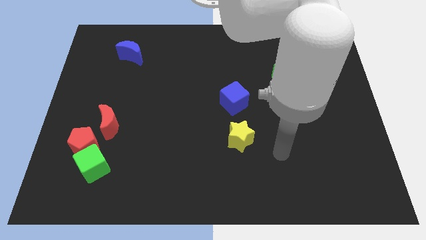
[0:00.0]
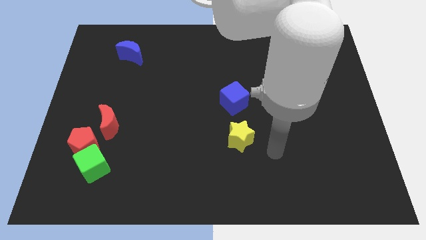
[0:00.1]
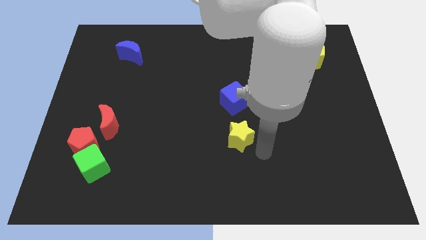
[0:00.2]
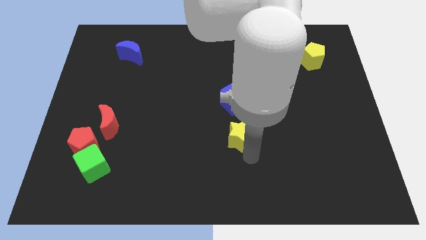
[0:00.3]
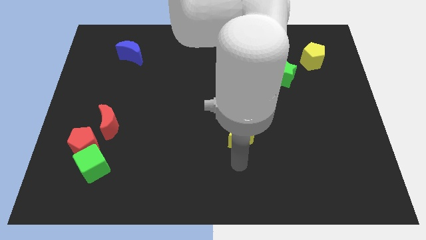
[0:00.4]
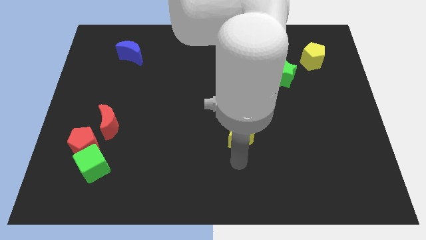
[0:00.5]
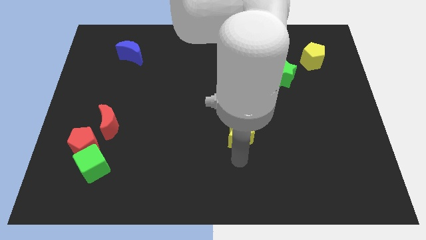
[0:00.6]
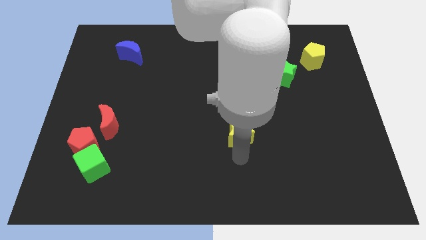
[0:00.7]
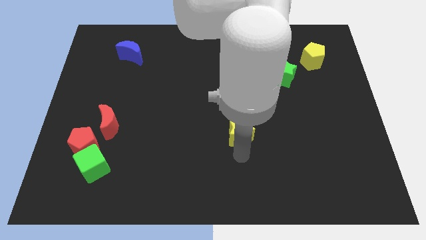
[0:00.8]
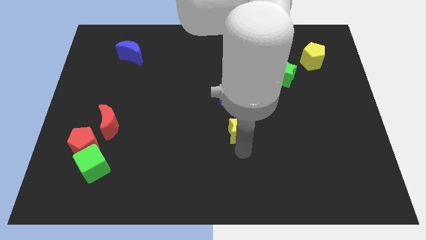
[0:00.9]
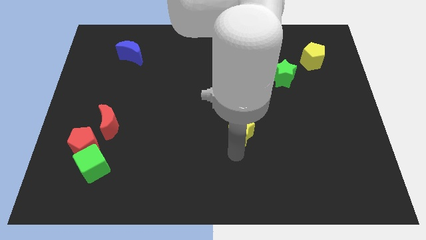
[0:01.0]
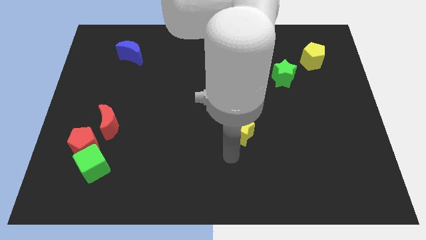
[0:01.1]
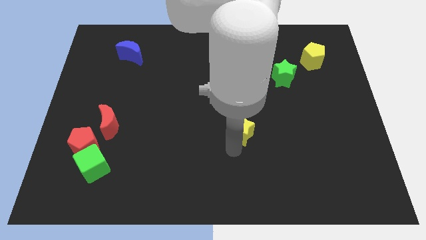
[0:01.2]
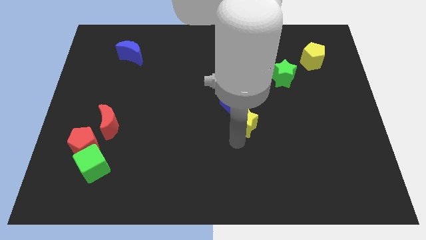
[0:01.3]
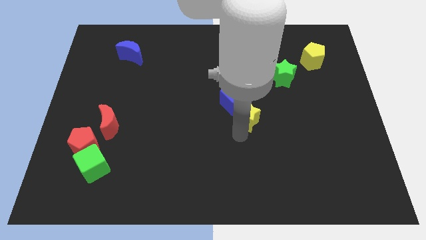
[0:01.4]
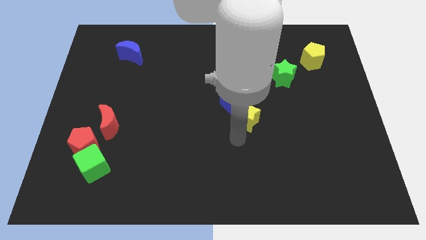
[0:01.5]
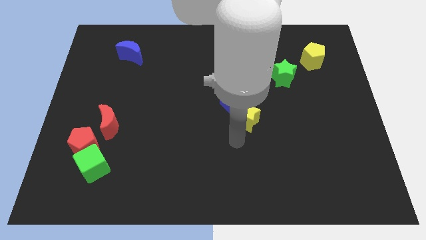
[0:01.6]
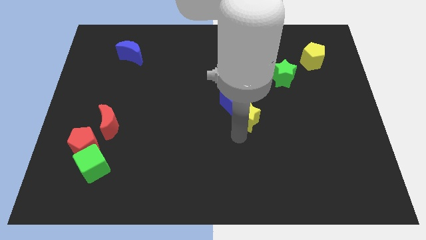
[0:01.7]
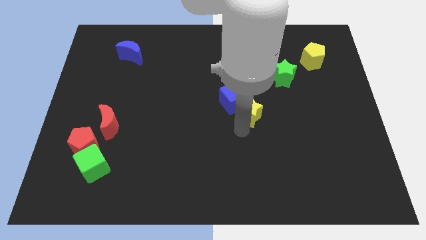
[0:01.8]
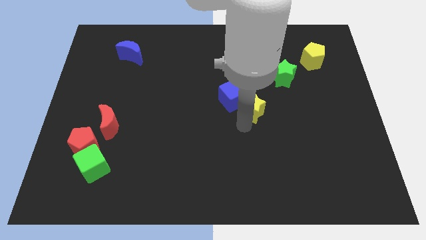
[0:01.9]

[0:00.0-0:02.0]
push the yellow star a little bit up

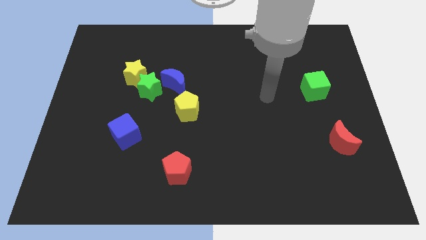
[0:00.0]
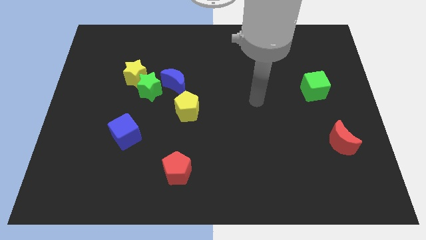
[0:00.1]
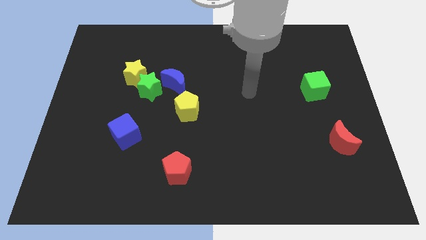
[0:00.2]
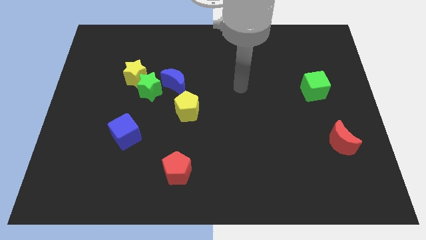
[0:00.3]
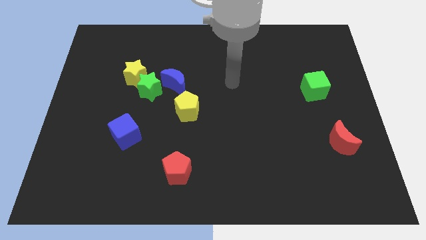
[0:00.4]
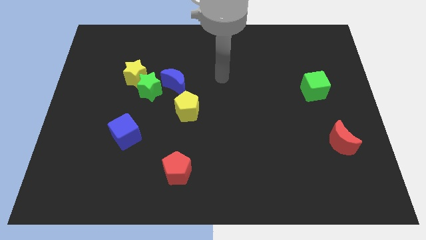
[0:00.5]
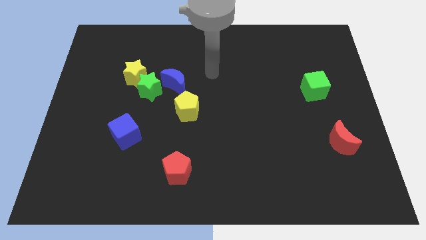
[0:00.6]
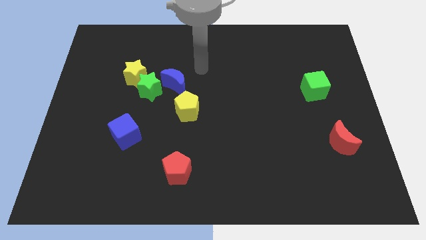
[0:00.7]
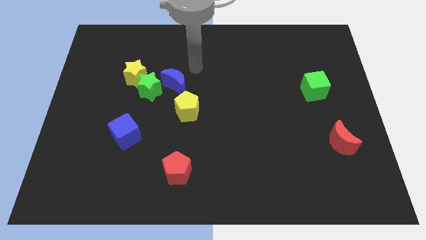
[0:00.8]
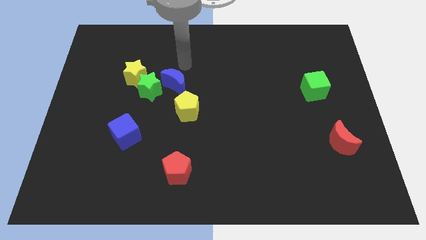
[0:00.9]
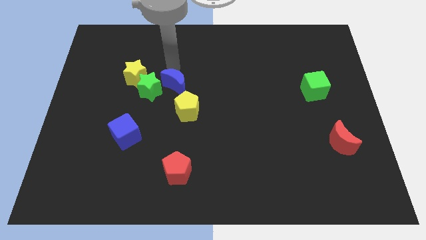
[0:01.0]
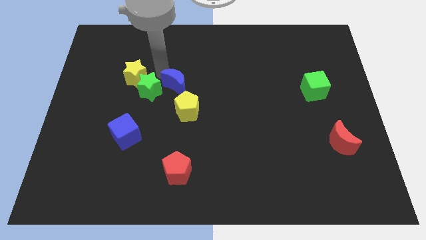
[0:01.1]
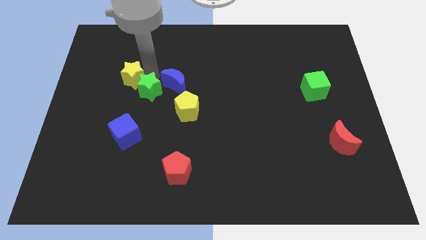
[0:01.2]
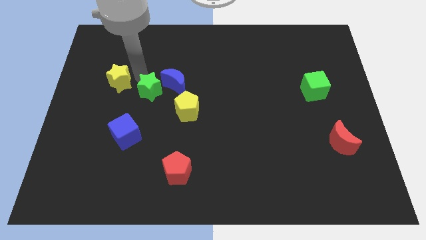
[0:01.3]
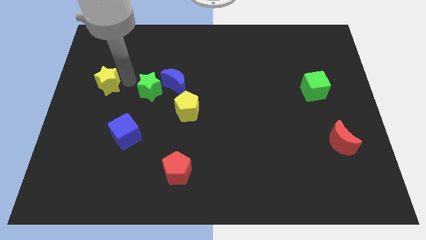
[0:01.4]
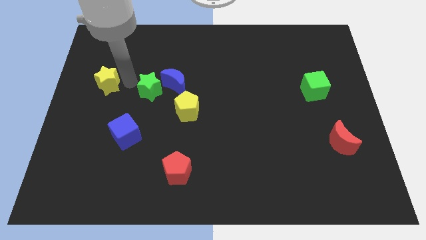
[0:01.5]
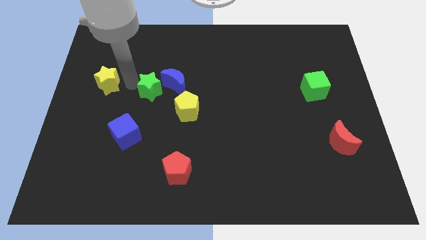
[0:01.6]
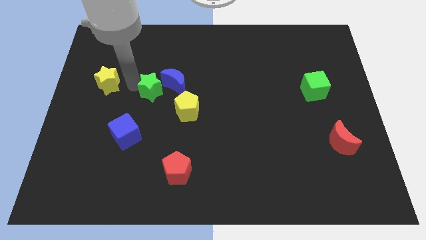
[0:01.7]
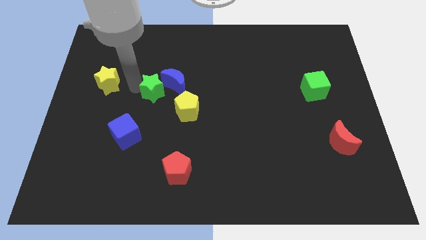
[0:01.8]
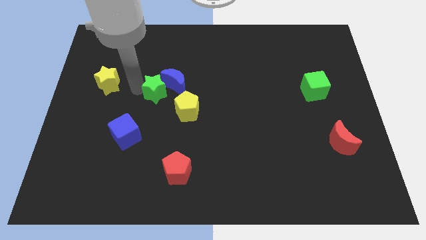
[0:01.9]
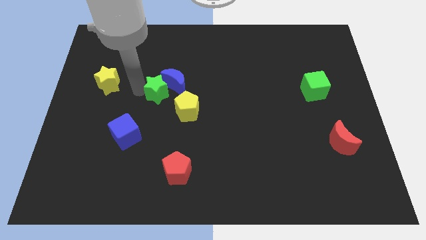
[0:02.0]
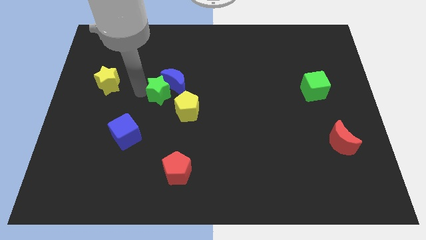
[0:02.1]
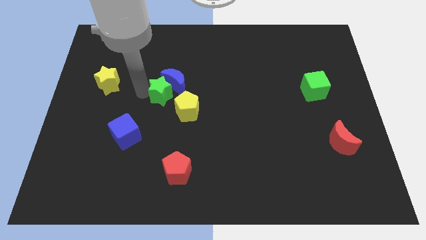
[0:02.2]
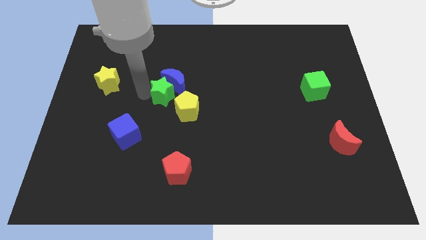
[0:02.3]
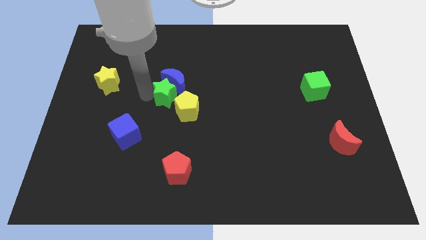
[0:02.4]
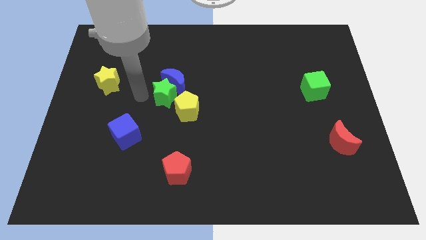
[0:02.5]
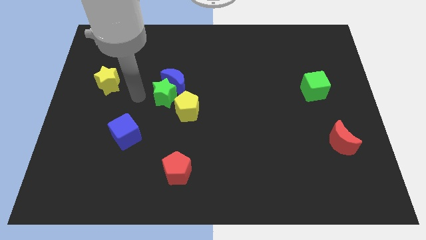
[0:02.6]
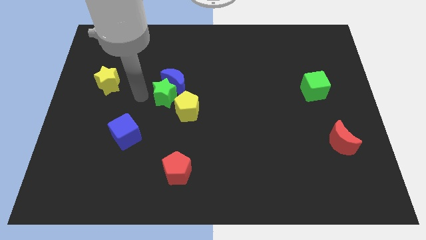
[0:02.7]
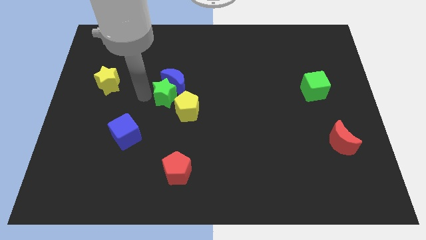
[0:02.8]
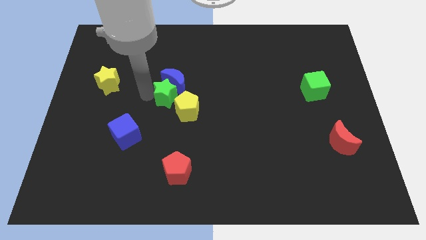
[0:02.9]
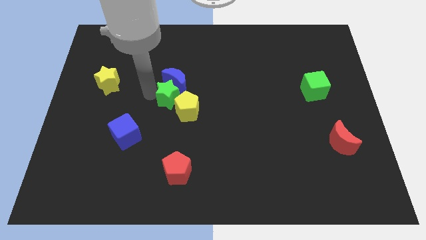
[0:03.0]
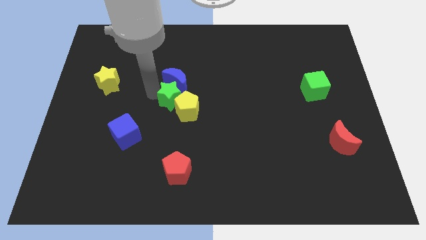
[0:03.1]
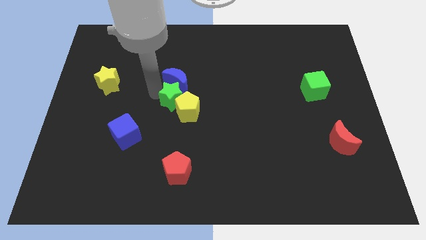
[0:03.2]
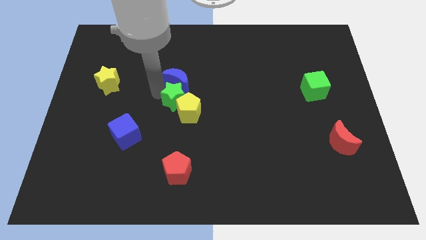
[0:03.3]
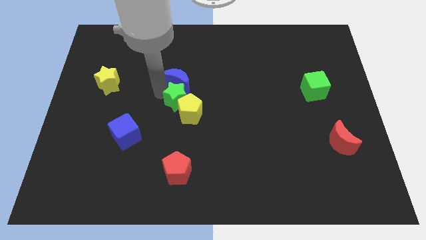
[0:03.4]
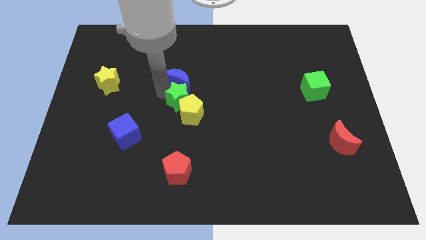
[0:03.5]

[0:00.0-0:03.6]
slide the green star slightly right

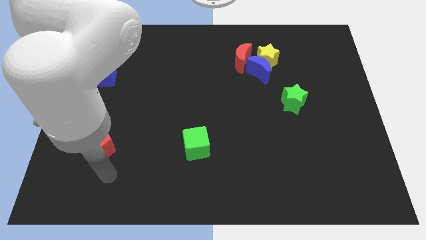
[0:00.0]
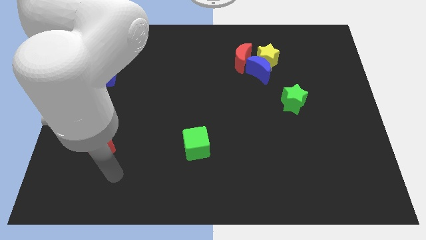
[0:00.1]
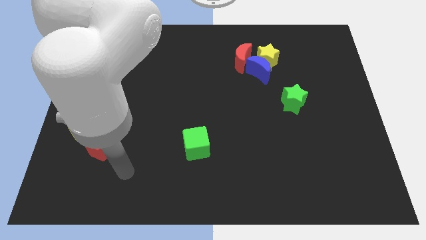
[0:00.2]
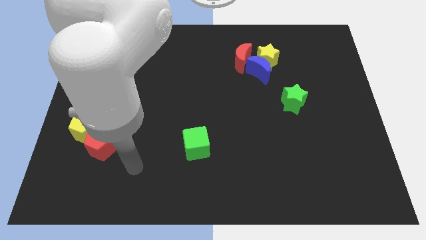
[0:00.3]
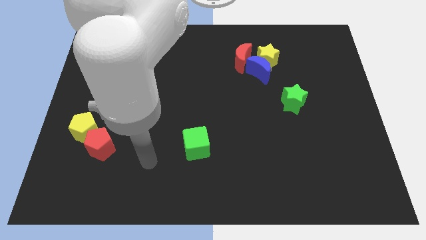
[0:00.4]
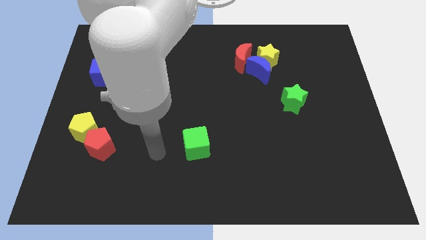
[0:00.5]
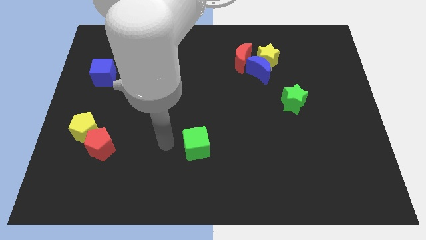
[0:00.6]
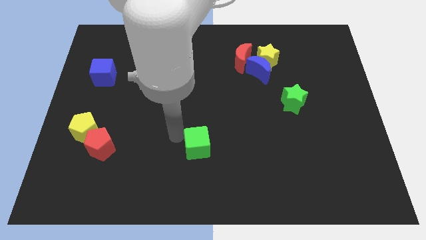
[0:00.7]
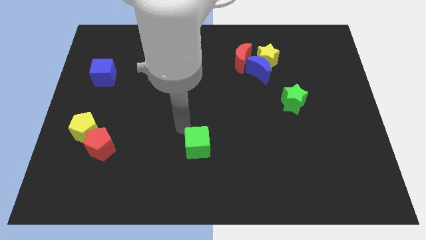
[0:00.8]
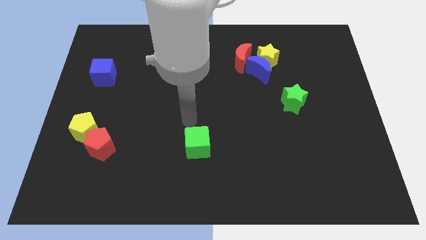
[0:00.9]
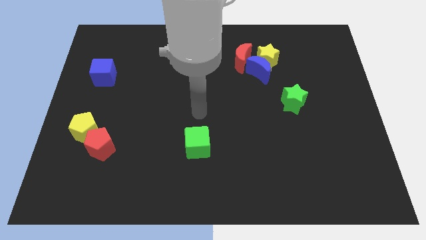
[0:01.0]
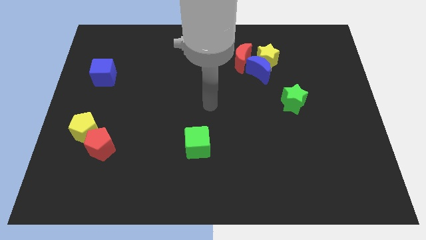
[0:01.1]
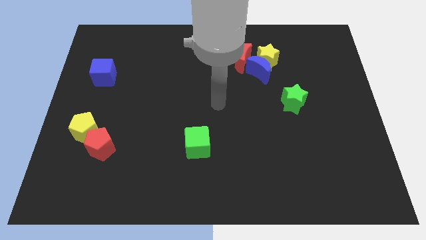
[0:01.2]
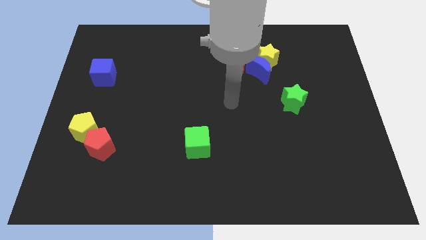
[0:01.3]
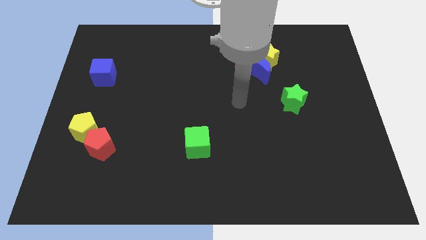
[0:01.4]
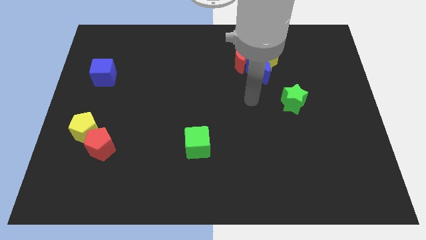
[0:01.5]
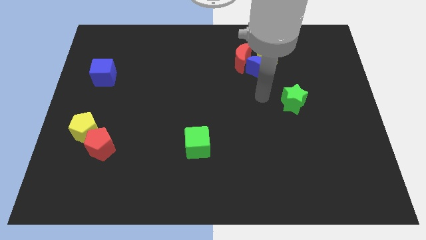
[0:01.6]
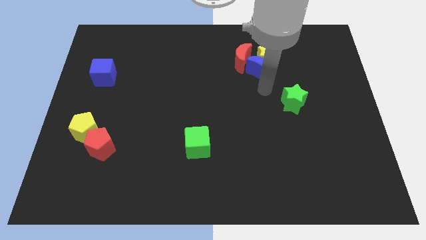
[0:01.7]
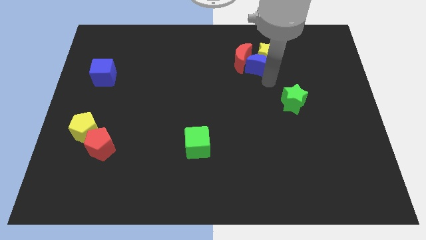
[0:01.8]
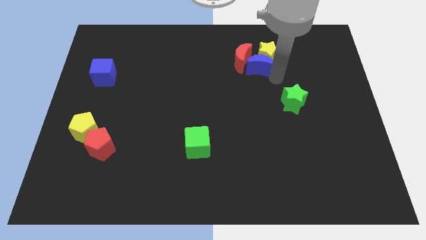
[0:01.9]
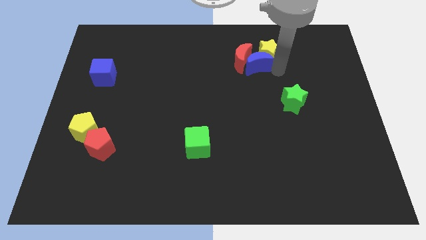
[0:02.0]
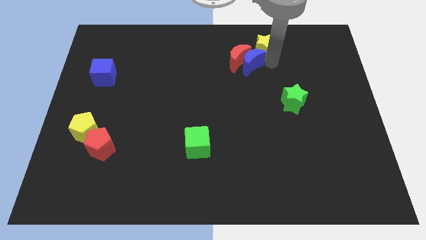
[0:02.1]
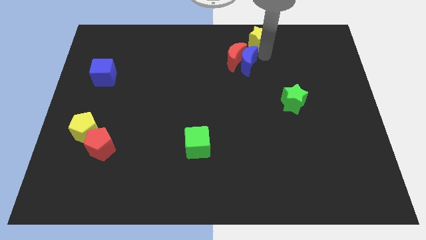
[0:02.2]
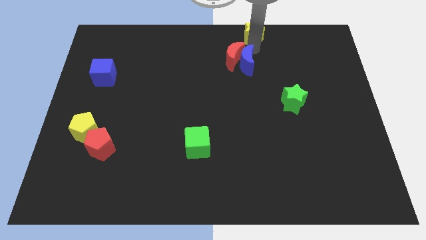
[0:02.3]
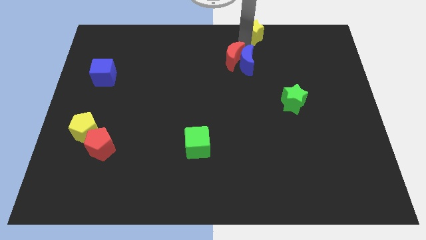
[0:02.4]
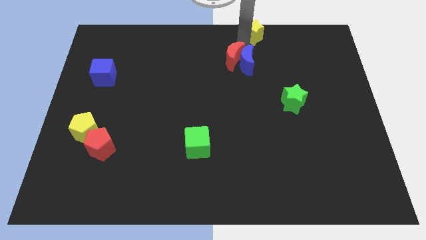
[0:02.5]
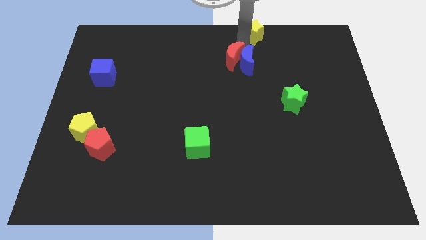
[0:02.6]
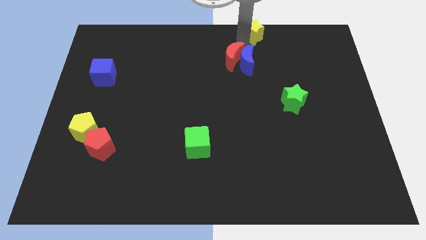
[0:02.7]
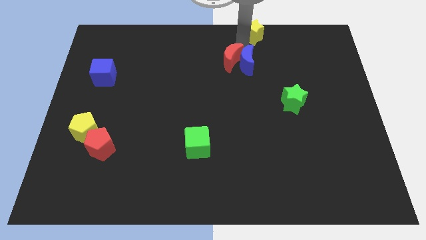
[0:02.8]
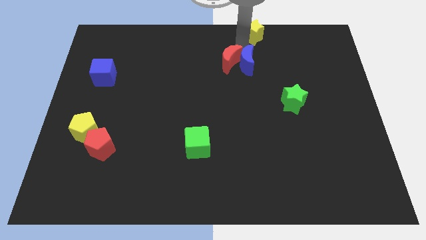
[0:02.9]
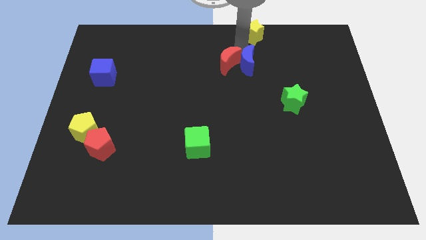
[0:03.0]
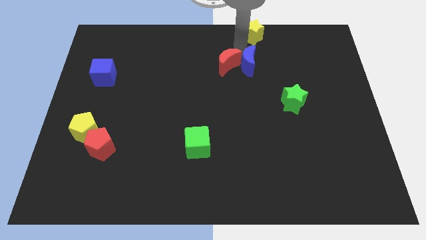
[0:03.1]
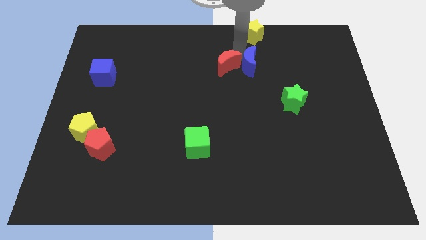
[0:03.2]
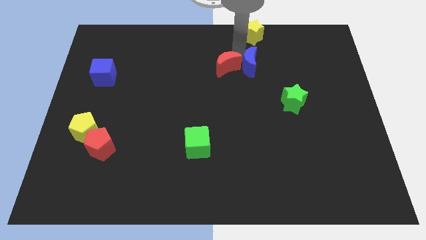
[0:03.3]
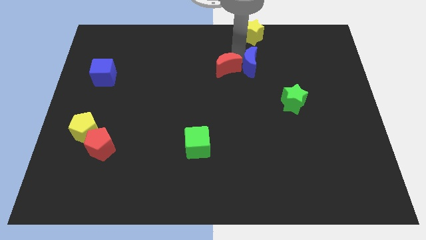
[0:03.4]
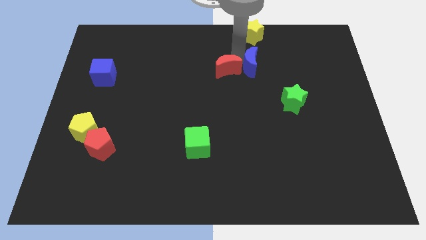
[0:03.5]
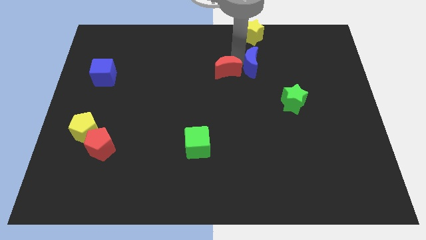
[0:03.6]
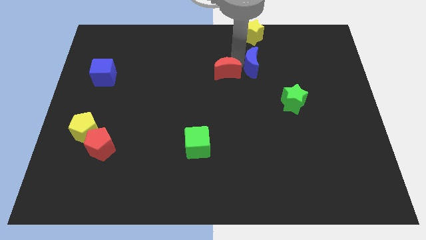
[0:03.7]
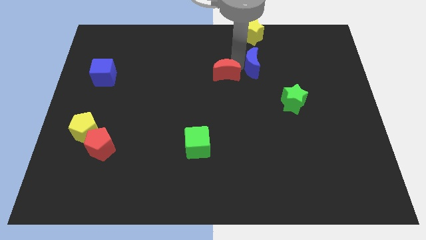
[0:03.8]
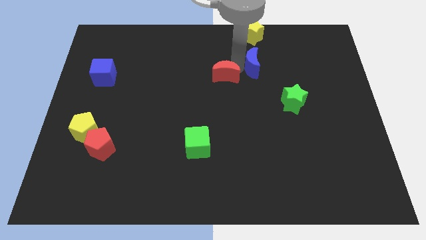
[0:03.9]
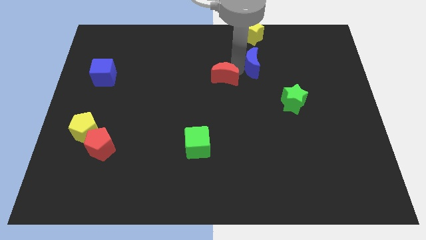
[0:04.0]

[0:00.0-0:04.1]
slightly push the red moon downwards and left diagonally
